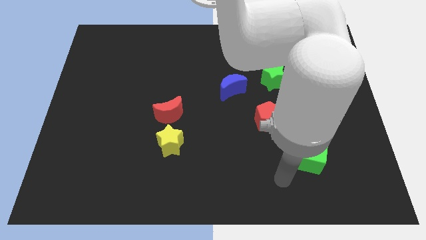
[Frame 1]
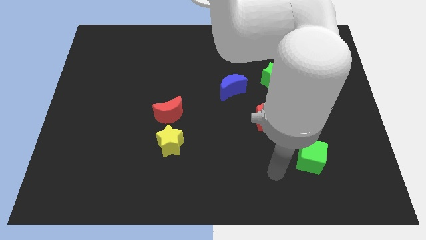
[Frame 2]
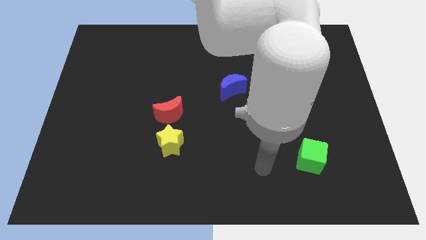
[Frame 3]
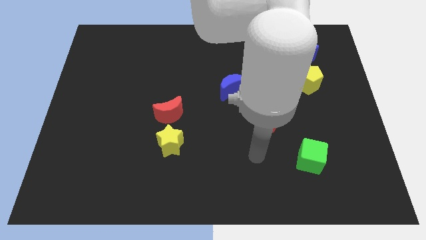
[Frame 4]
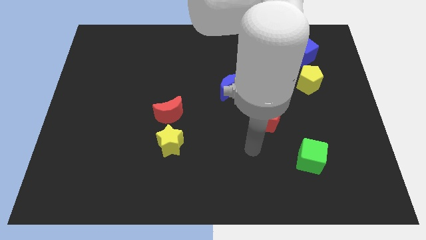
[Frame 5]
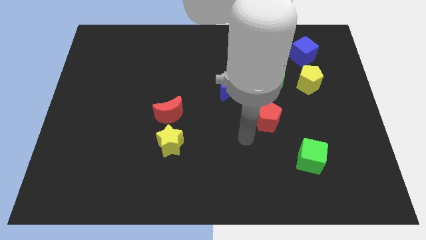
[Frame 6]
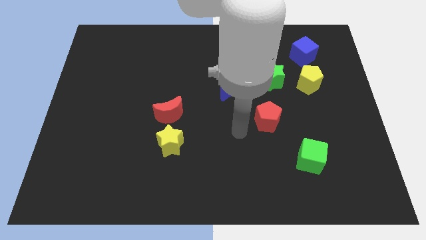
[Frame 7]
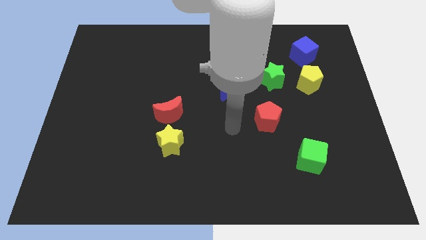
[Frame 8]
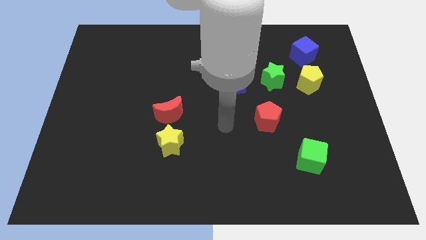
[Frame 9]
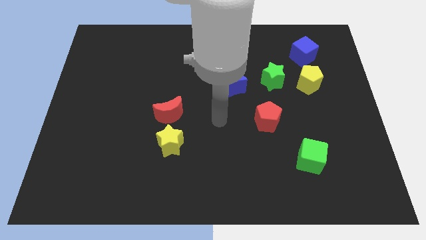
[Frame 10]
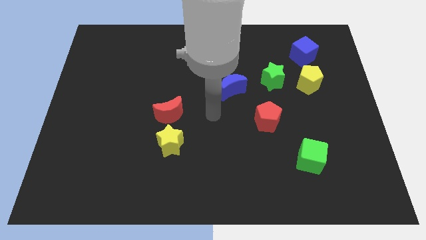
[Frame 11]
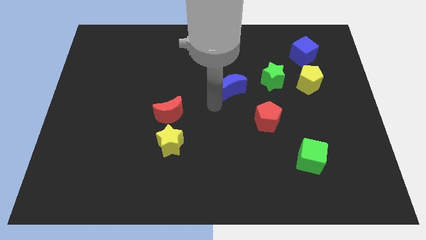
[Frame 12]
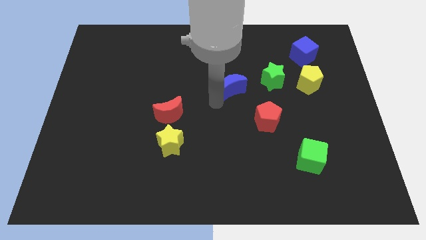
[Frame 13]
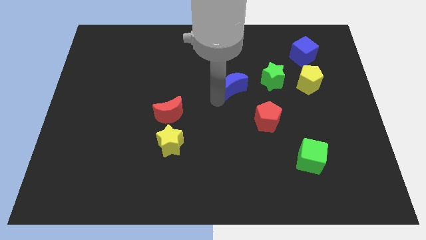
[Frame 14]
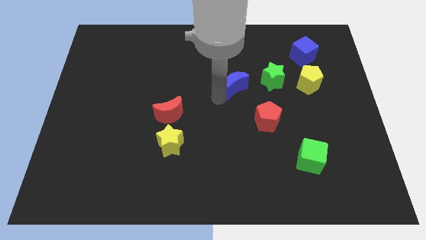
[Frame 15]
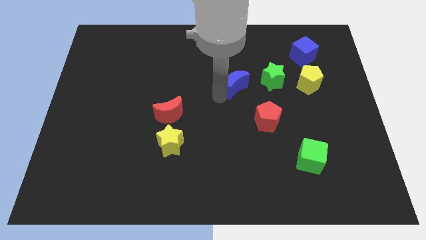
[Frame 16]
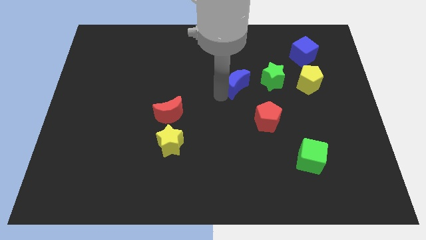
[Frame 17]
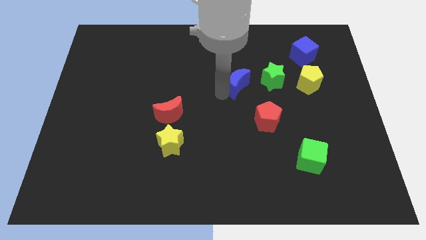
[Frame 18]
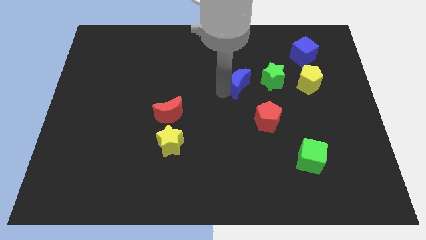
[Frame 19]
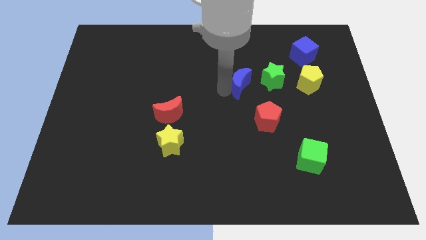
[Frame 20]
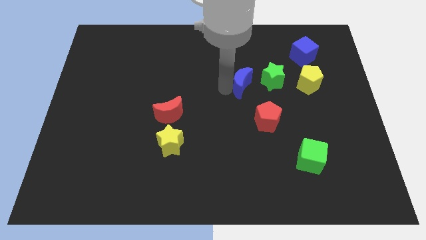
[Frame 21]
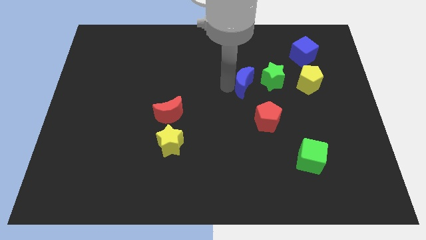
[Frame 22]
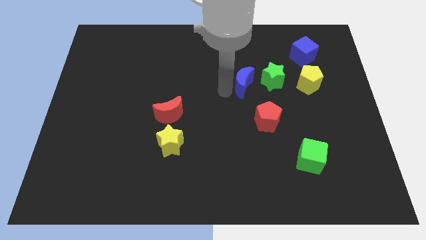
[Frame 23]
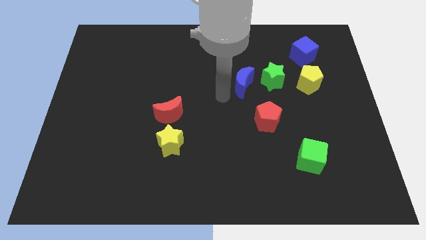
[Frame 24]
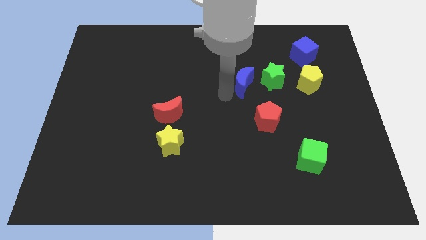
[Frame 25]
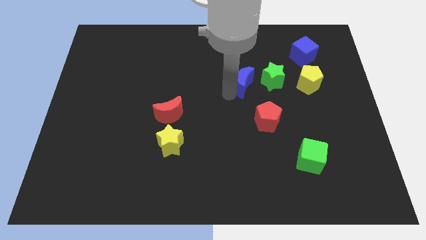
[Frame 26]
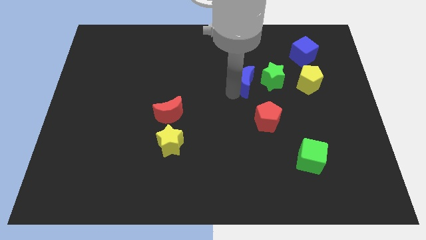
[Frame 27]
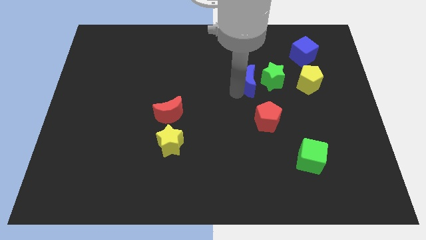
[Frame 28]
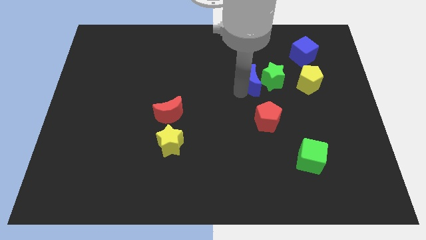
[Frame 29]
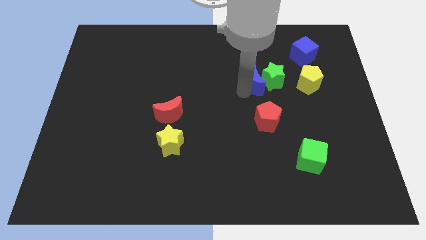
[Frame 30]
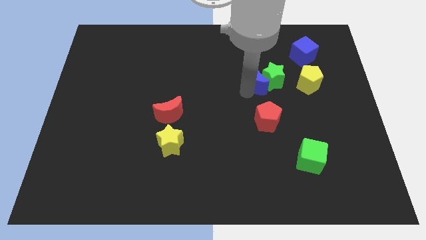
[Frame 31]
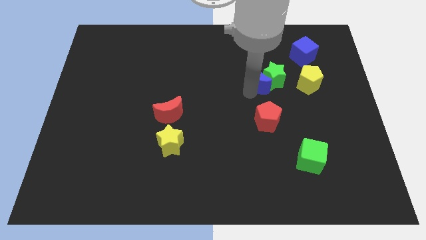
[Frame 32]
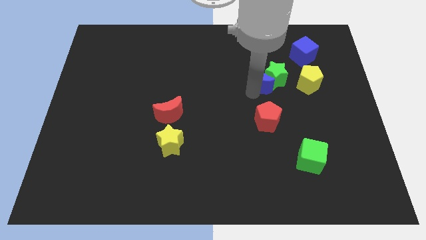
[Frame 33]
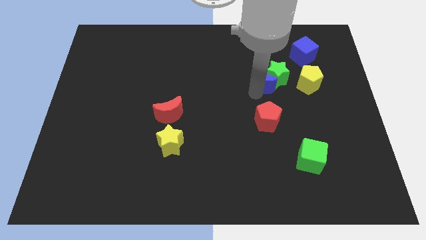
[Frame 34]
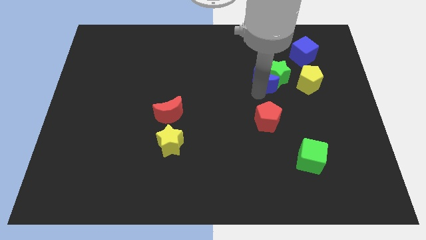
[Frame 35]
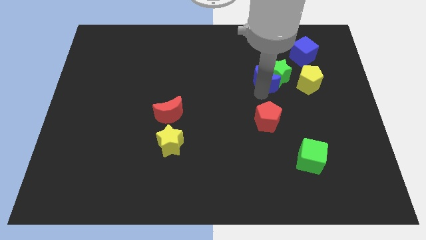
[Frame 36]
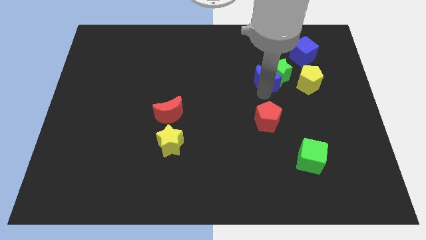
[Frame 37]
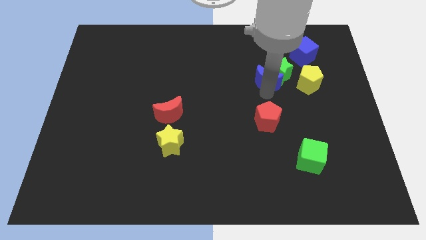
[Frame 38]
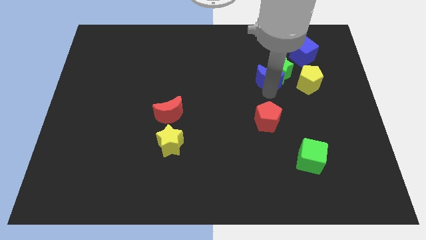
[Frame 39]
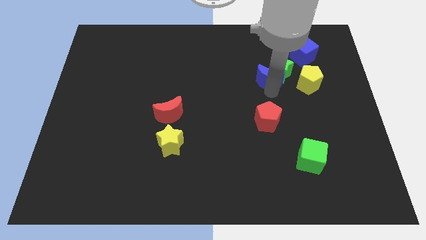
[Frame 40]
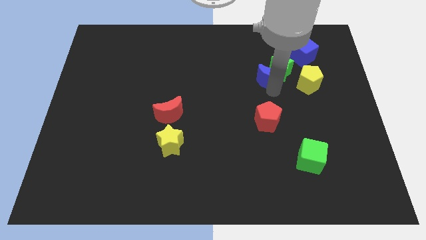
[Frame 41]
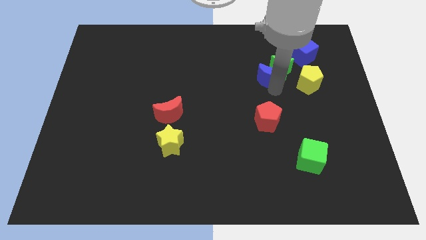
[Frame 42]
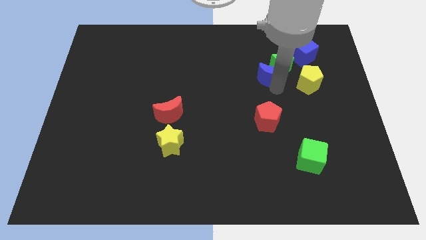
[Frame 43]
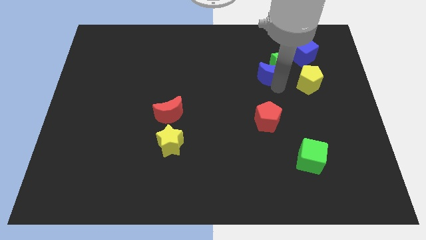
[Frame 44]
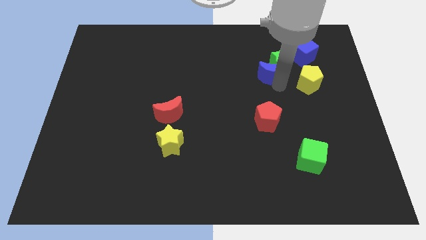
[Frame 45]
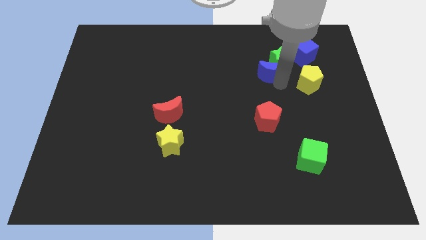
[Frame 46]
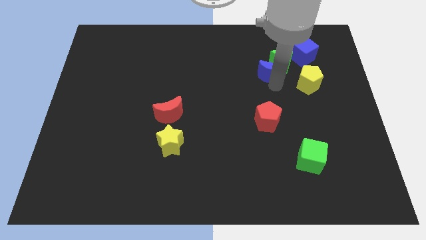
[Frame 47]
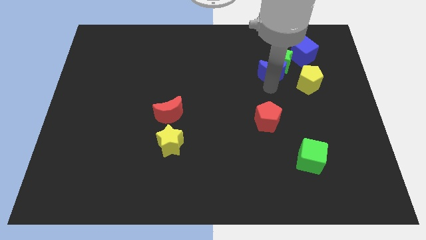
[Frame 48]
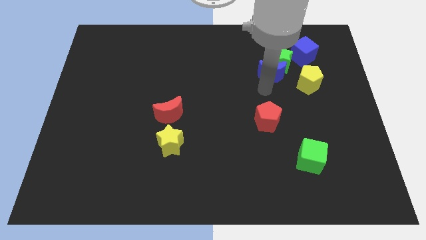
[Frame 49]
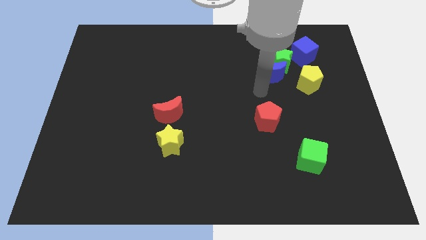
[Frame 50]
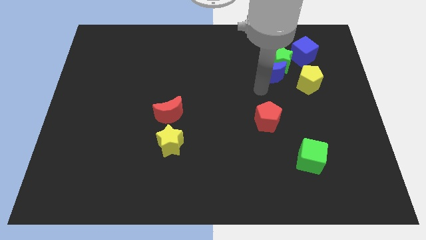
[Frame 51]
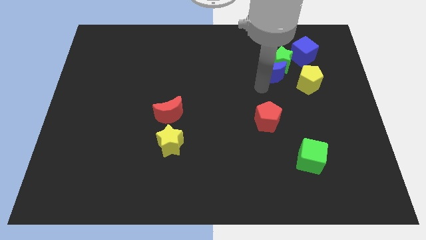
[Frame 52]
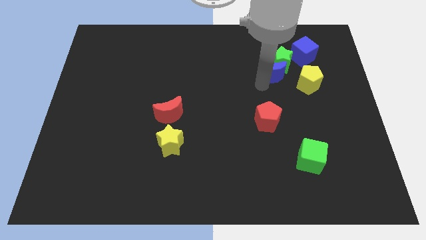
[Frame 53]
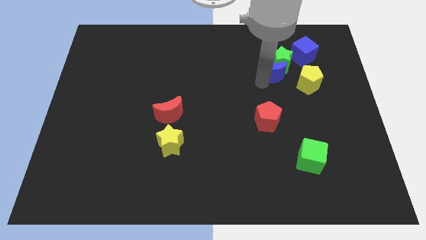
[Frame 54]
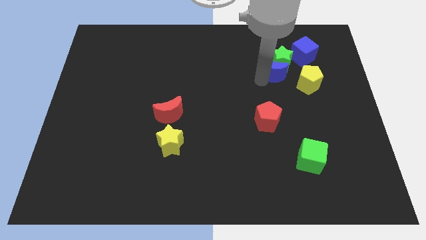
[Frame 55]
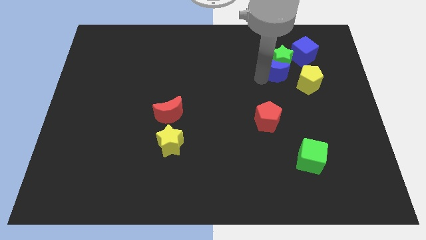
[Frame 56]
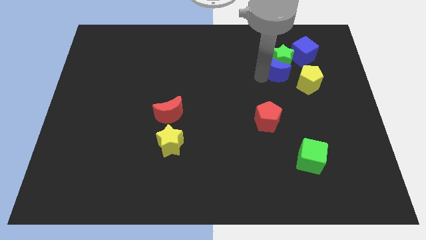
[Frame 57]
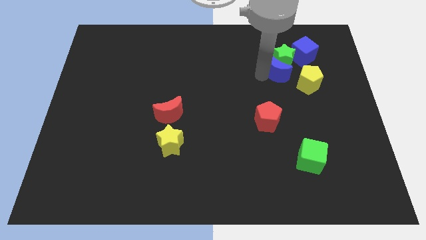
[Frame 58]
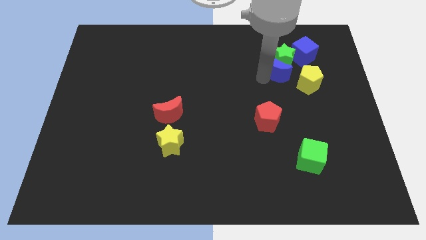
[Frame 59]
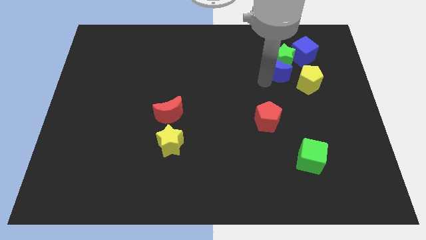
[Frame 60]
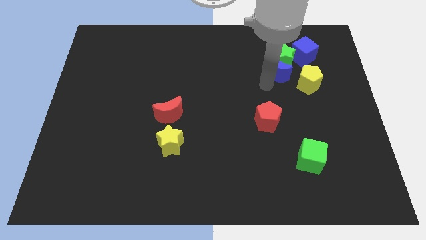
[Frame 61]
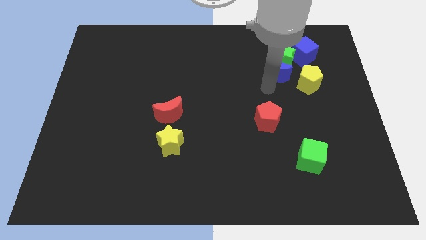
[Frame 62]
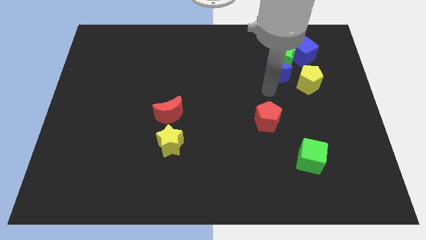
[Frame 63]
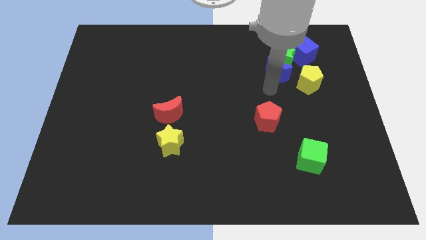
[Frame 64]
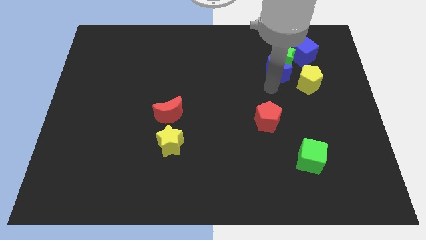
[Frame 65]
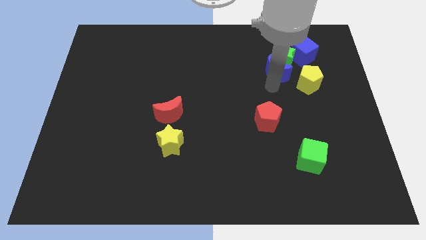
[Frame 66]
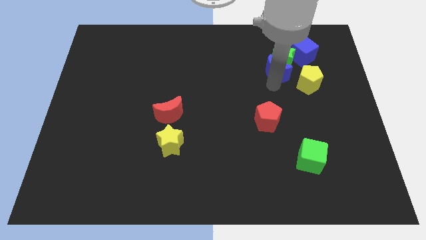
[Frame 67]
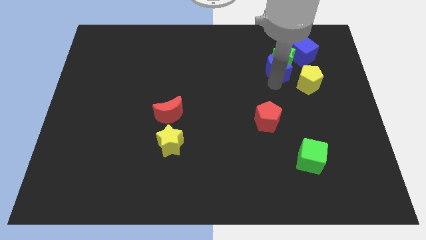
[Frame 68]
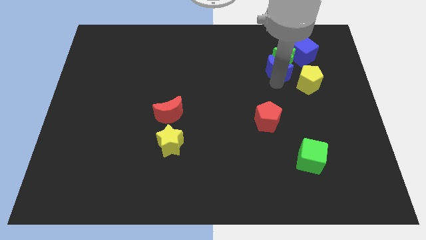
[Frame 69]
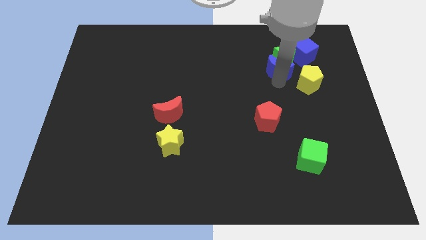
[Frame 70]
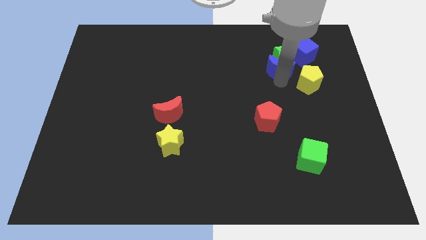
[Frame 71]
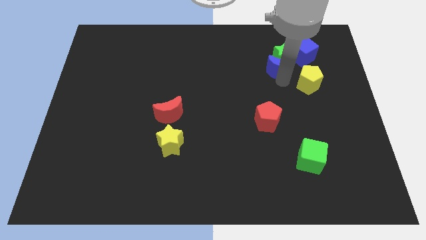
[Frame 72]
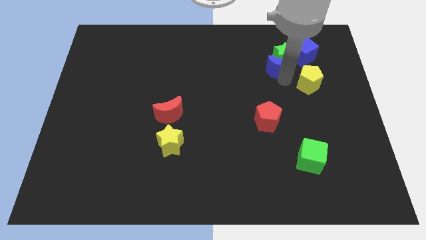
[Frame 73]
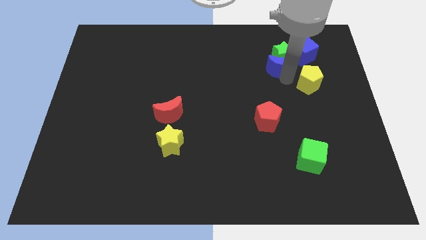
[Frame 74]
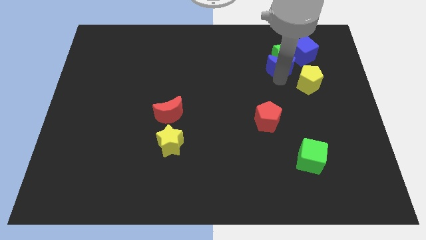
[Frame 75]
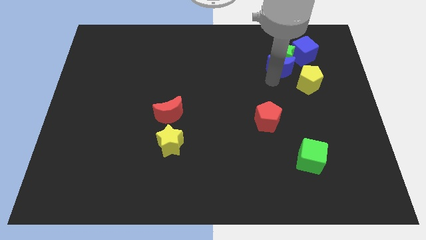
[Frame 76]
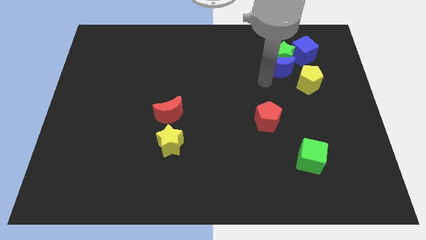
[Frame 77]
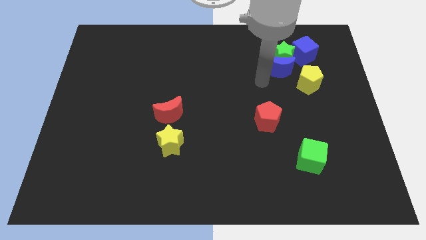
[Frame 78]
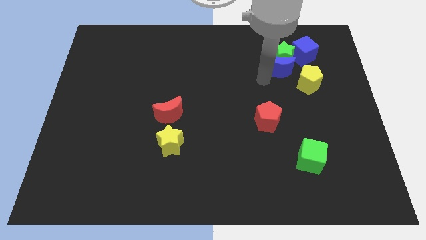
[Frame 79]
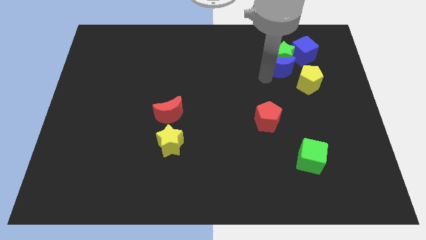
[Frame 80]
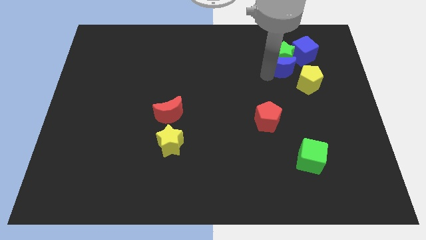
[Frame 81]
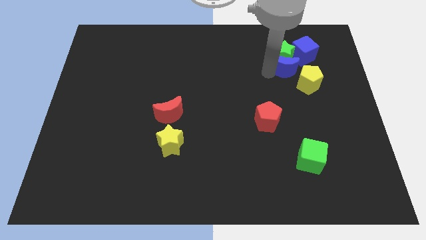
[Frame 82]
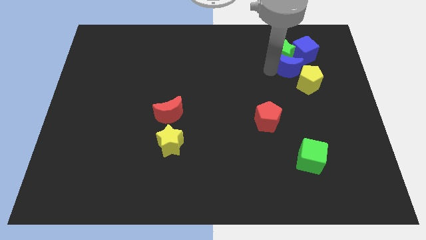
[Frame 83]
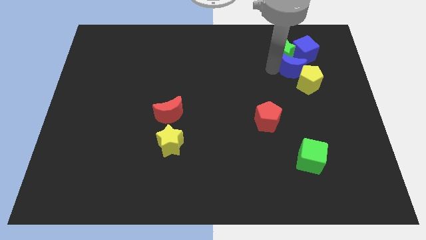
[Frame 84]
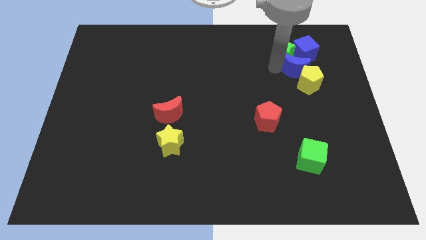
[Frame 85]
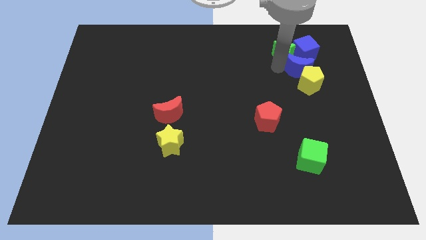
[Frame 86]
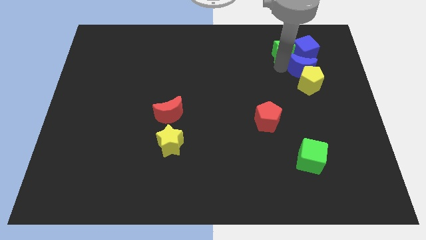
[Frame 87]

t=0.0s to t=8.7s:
slide the blue moon close to the blue cube
